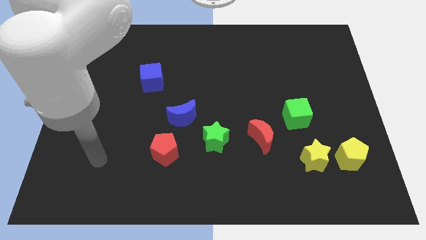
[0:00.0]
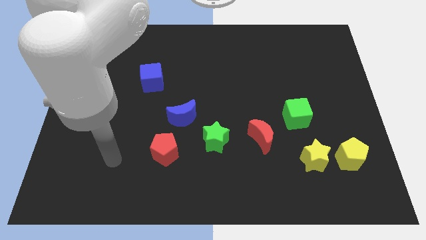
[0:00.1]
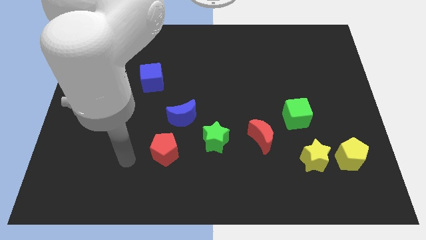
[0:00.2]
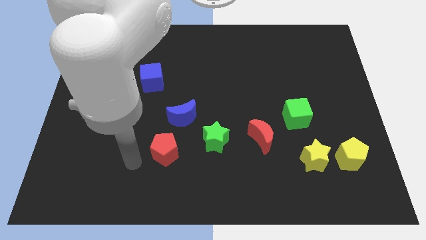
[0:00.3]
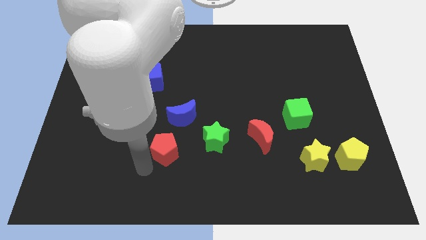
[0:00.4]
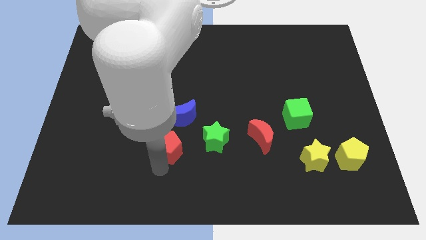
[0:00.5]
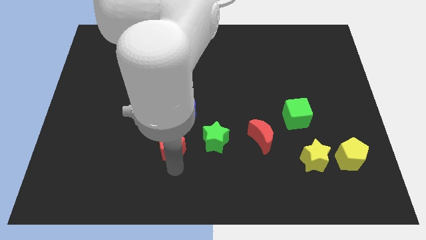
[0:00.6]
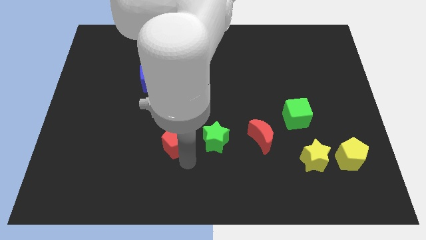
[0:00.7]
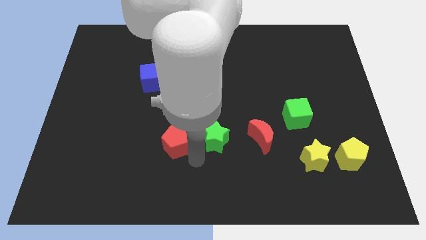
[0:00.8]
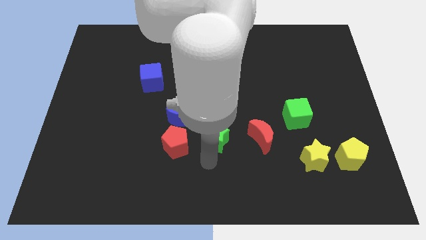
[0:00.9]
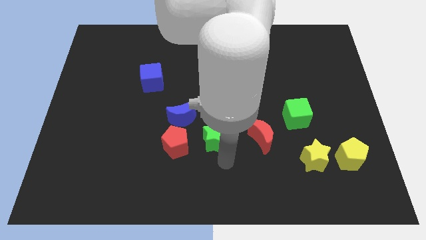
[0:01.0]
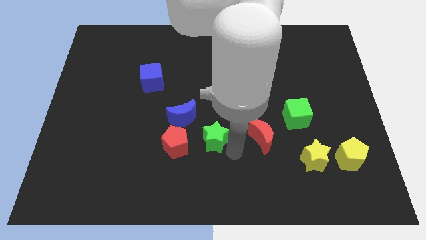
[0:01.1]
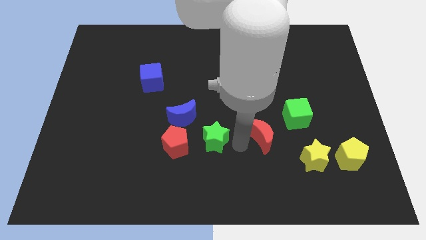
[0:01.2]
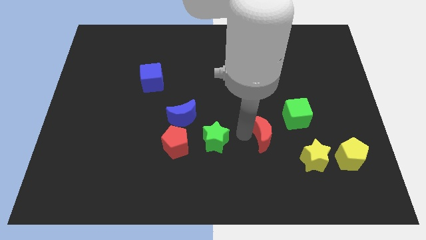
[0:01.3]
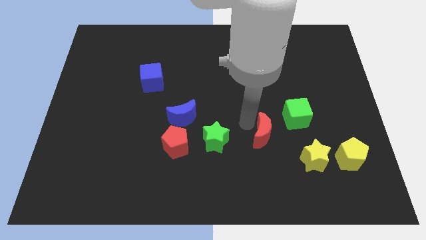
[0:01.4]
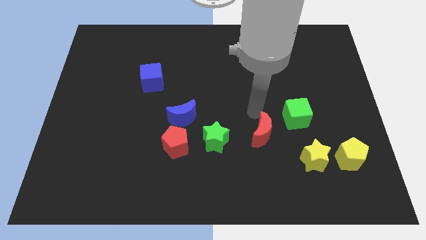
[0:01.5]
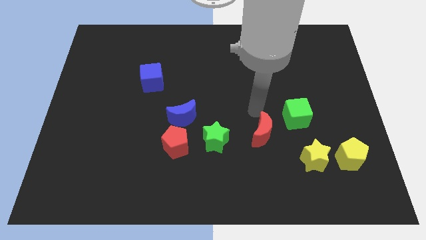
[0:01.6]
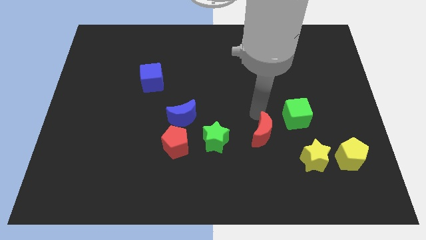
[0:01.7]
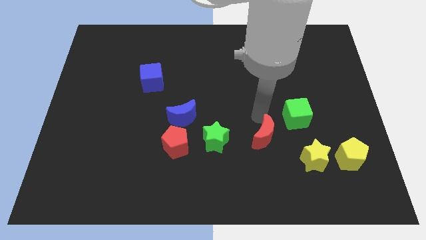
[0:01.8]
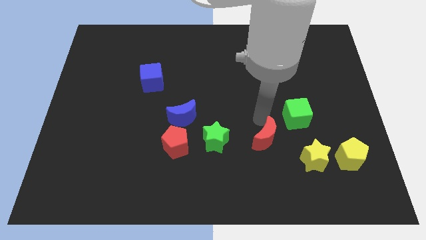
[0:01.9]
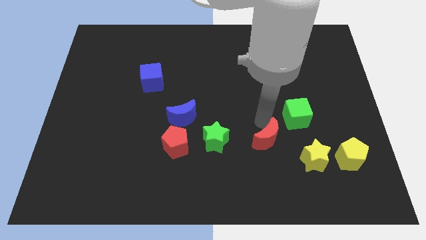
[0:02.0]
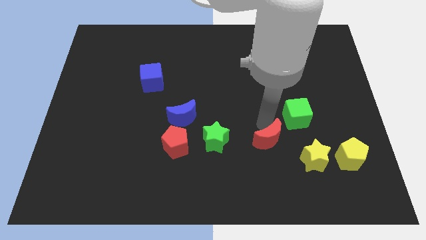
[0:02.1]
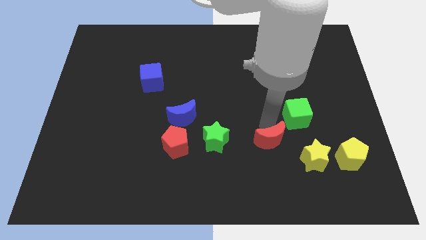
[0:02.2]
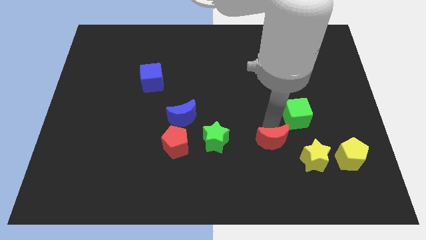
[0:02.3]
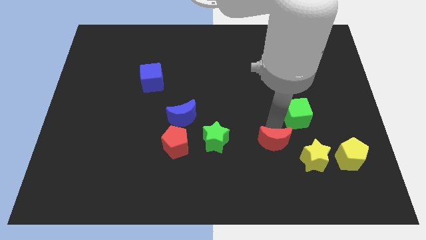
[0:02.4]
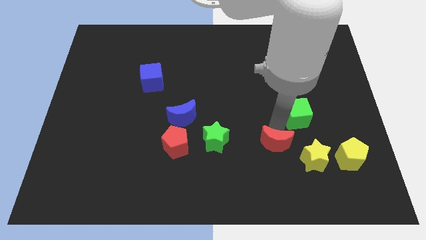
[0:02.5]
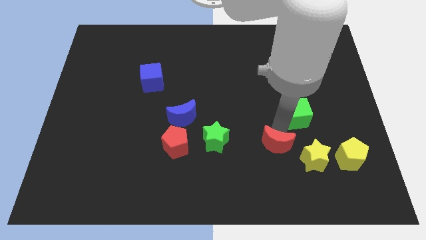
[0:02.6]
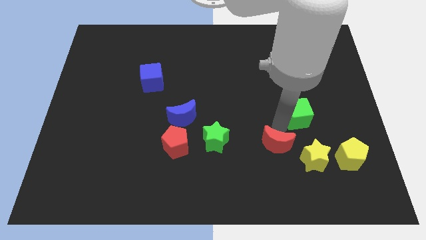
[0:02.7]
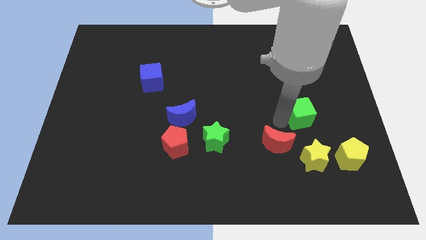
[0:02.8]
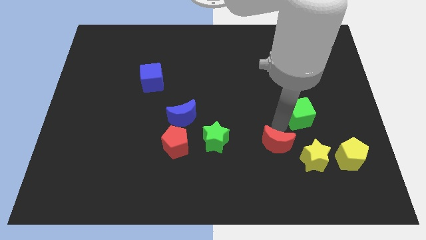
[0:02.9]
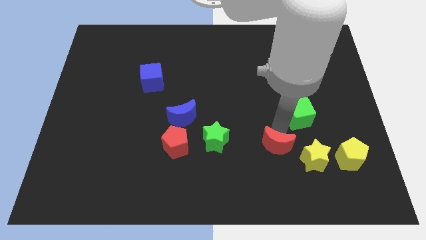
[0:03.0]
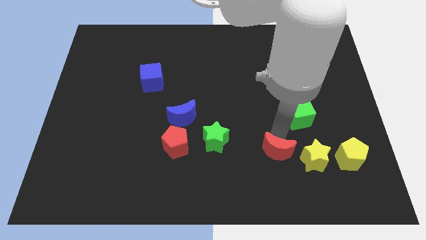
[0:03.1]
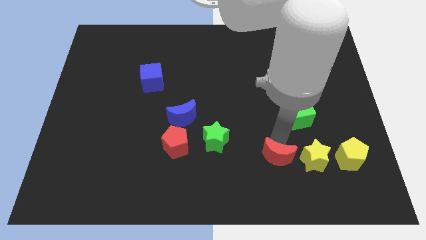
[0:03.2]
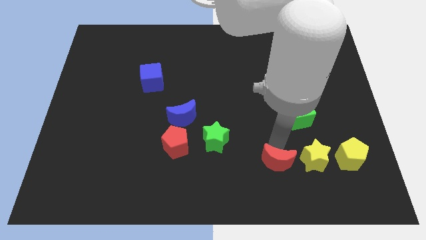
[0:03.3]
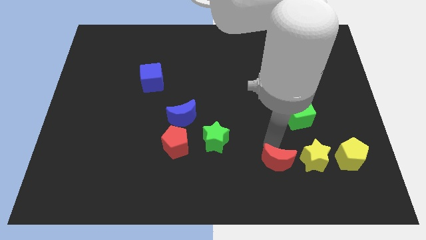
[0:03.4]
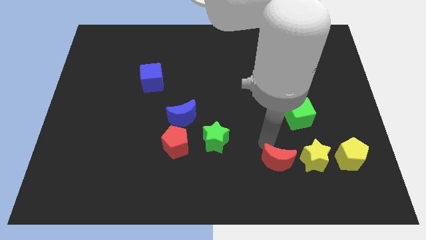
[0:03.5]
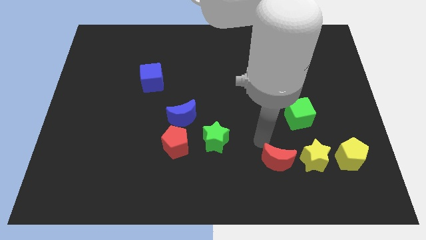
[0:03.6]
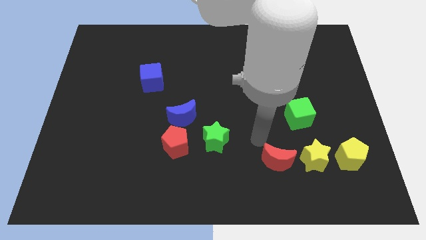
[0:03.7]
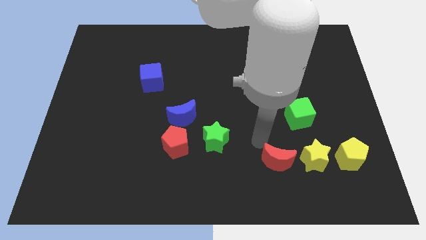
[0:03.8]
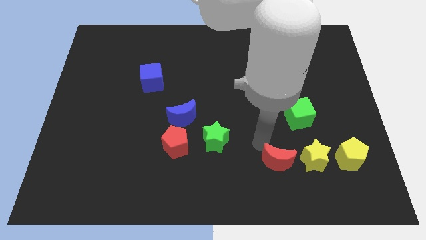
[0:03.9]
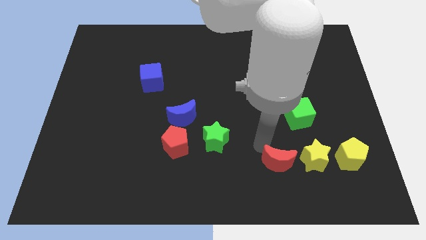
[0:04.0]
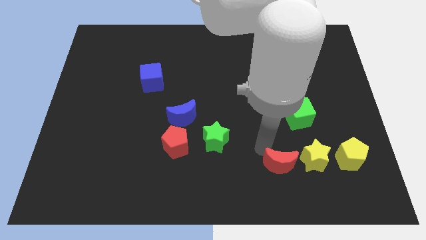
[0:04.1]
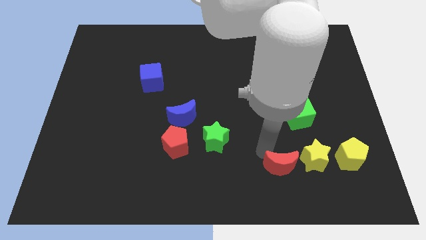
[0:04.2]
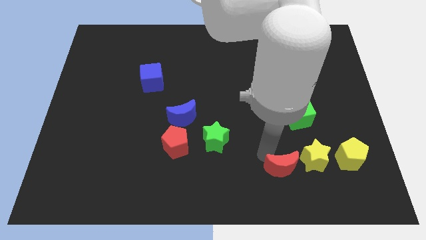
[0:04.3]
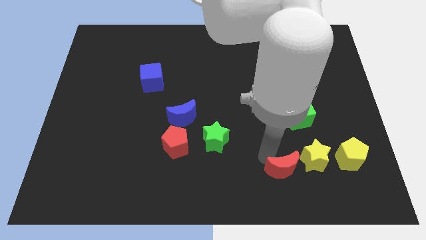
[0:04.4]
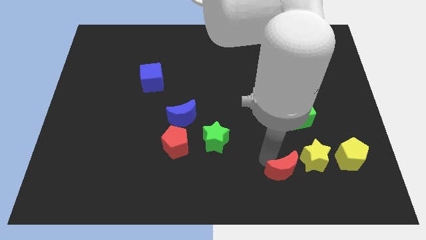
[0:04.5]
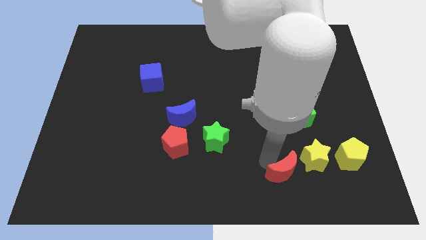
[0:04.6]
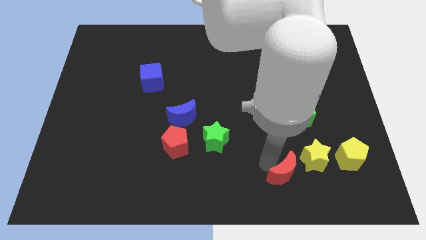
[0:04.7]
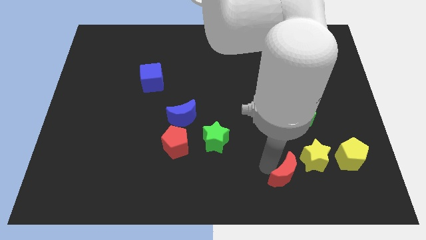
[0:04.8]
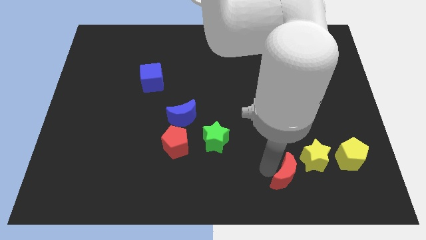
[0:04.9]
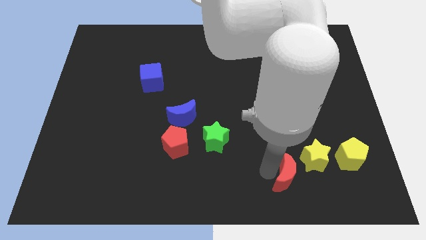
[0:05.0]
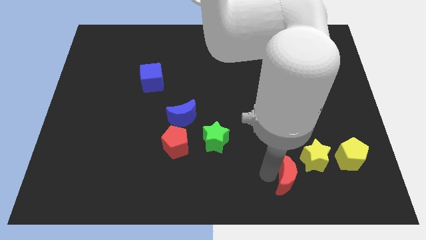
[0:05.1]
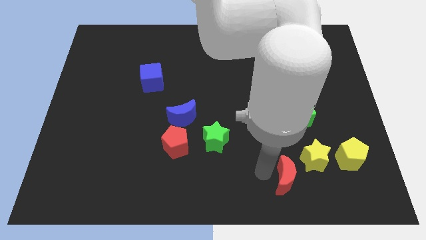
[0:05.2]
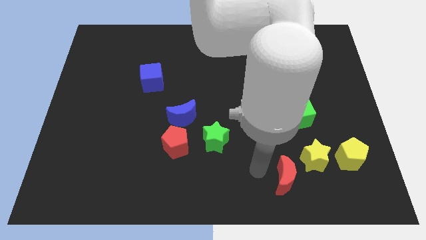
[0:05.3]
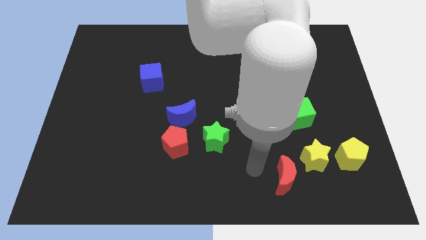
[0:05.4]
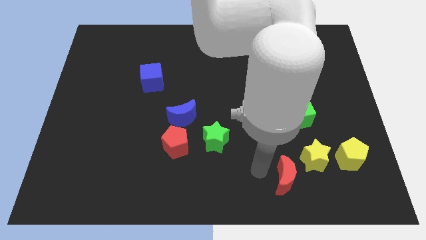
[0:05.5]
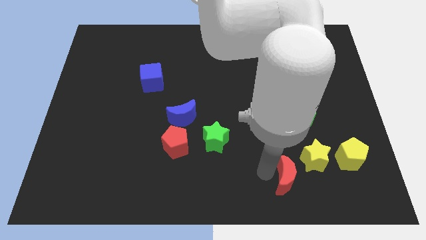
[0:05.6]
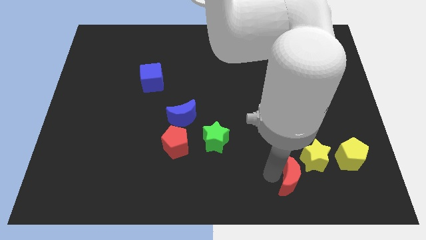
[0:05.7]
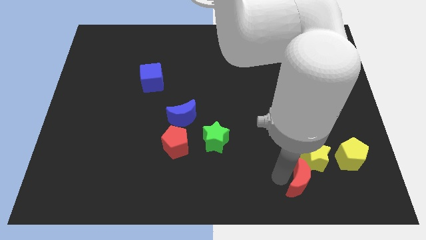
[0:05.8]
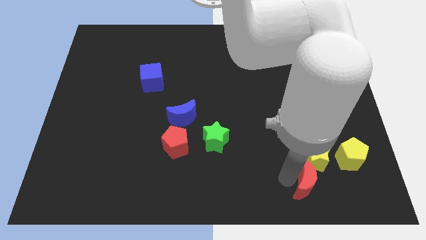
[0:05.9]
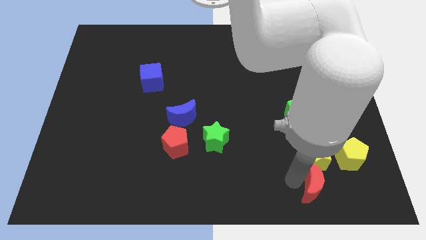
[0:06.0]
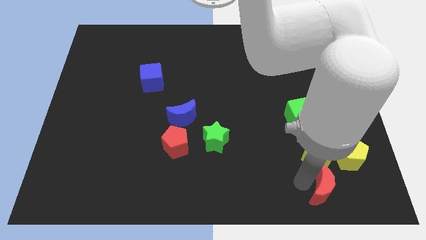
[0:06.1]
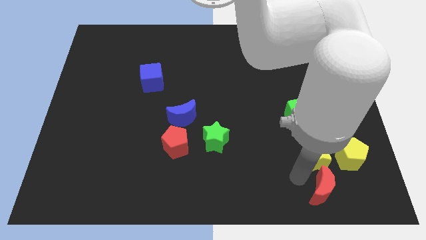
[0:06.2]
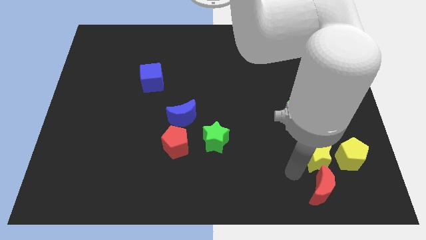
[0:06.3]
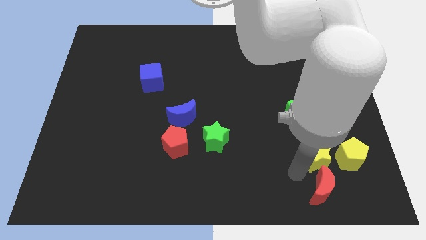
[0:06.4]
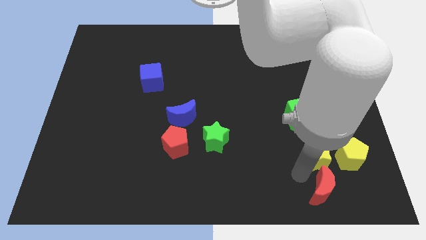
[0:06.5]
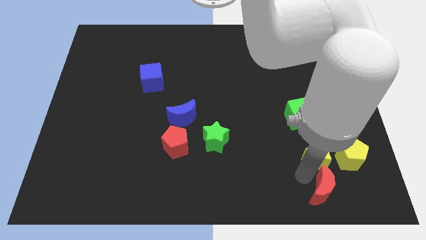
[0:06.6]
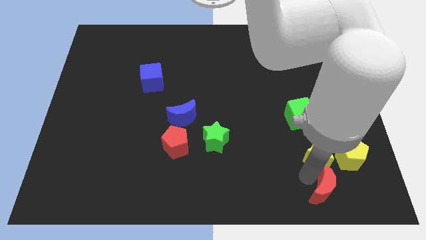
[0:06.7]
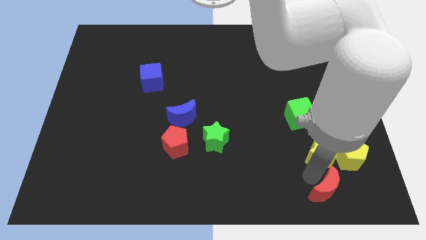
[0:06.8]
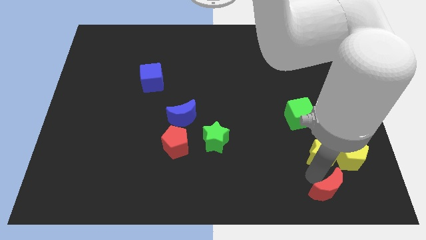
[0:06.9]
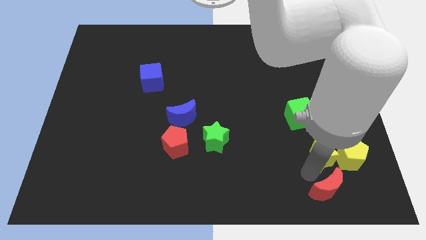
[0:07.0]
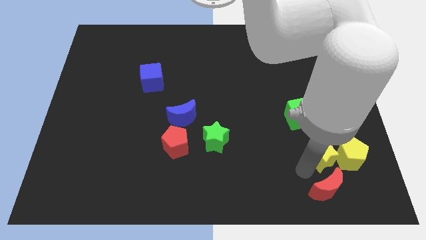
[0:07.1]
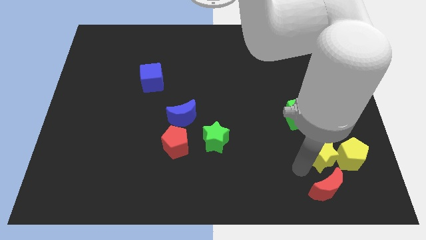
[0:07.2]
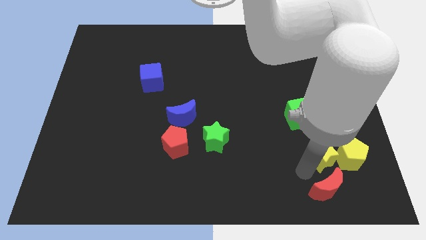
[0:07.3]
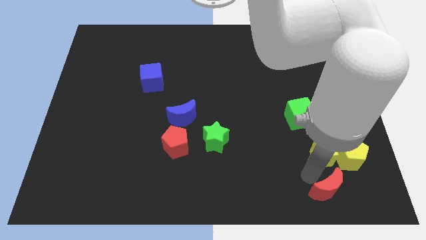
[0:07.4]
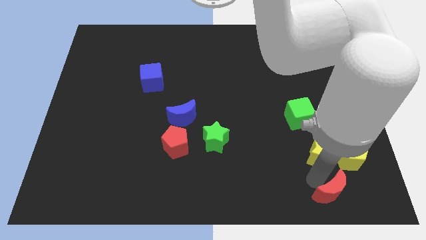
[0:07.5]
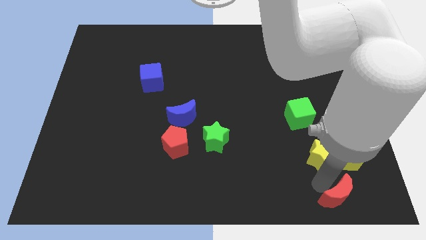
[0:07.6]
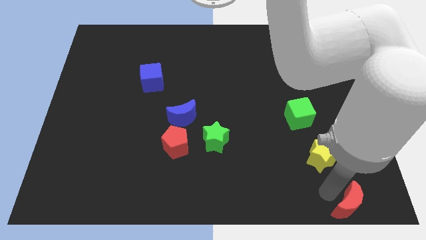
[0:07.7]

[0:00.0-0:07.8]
put the red moon to the bottom right corner
